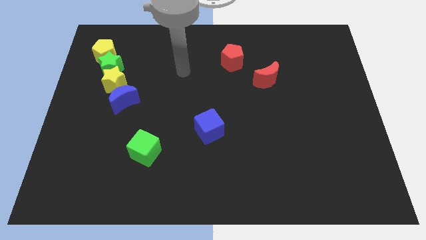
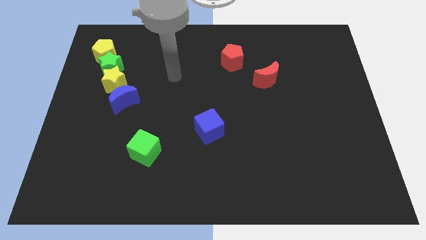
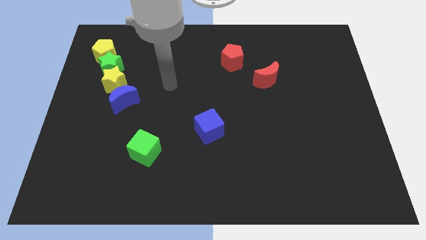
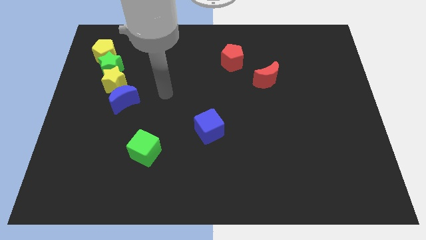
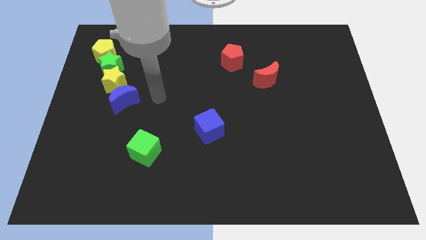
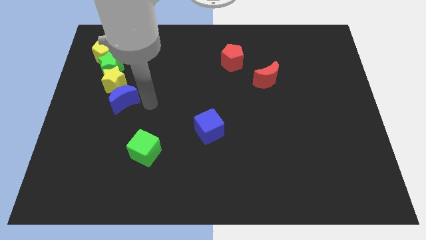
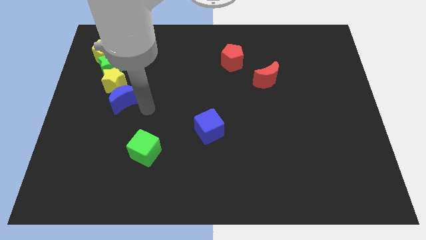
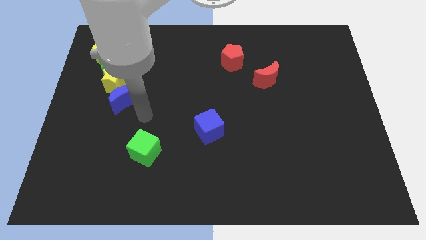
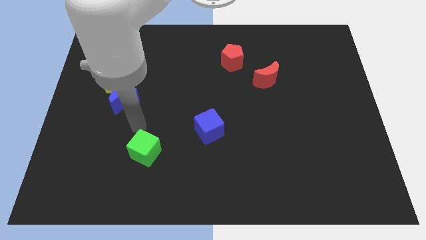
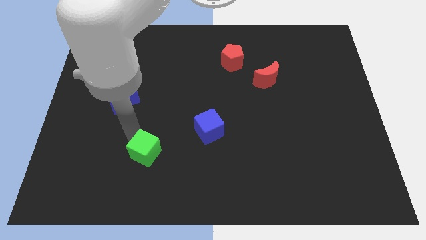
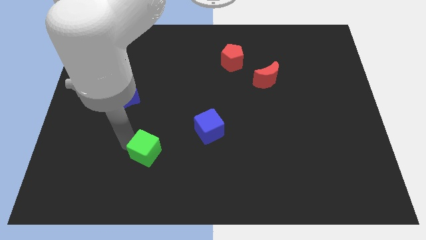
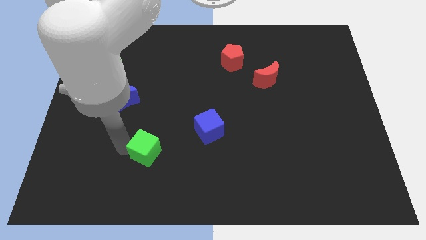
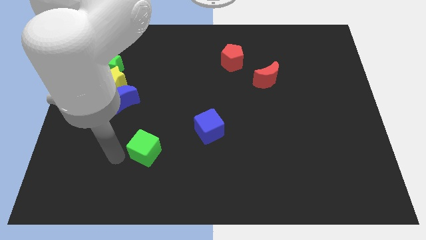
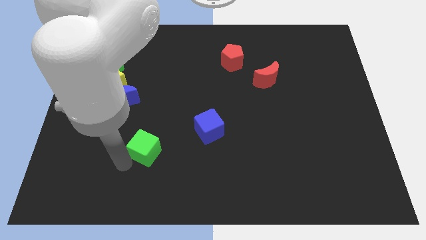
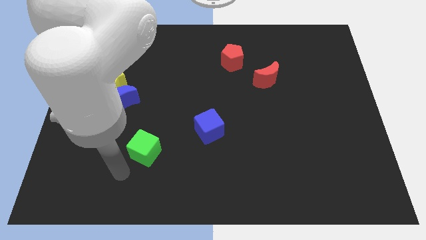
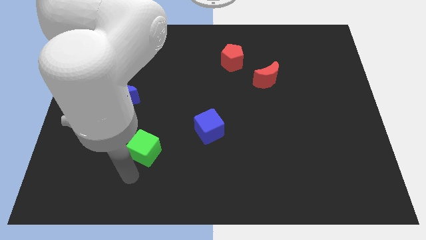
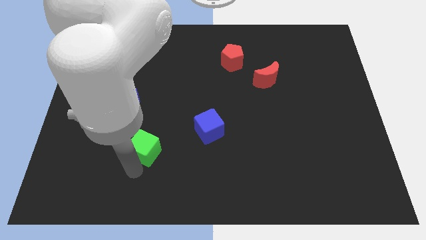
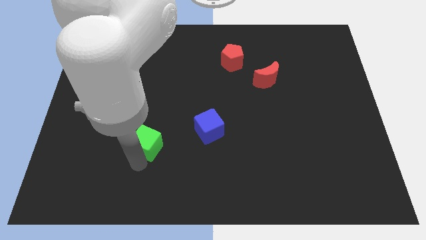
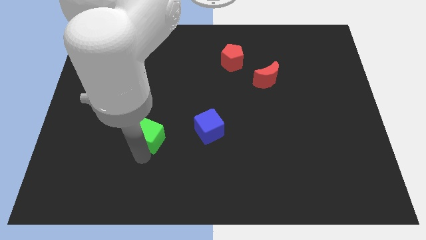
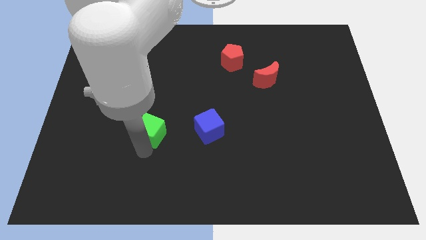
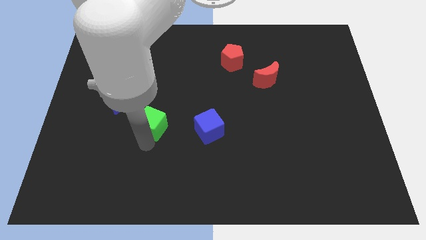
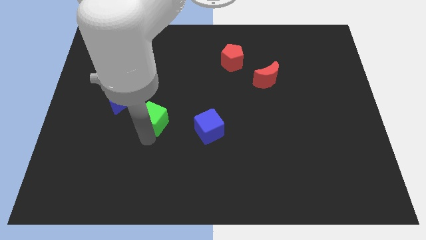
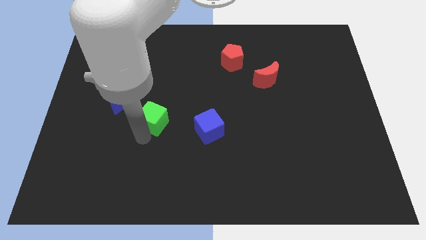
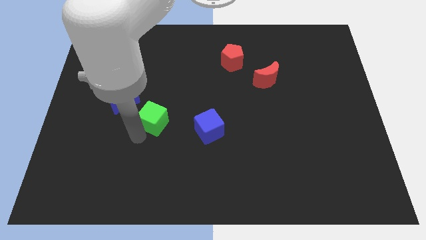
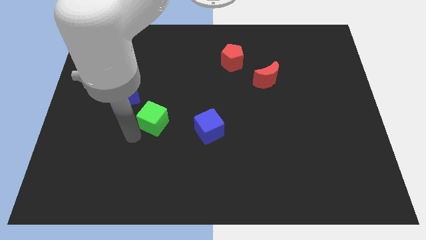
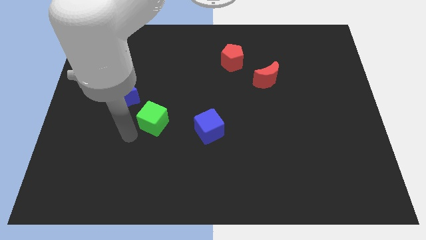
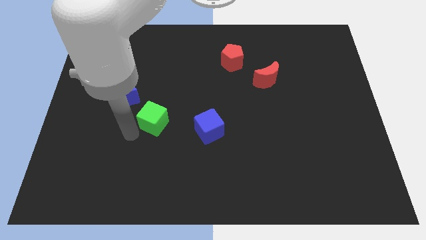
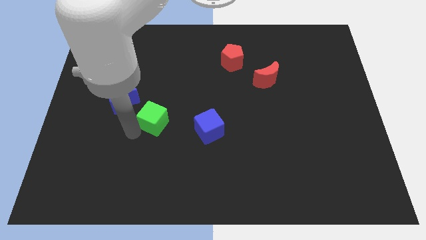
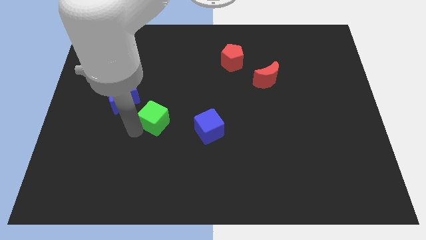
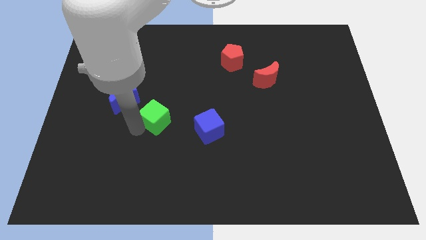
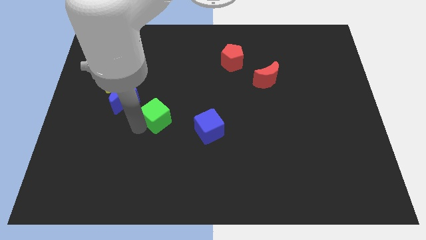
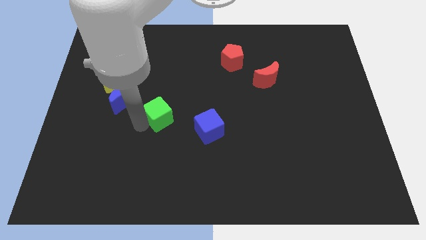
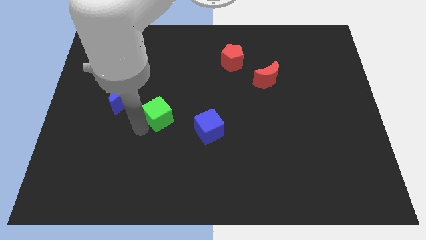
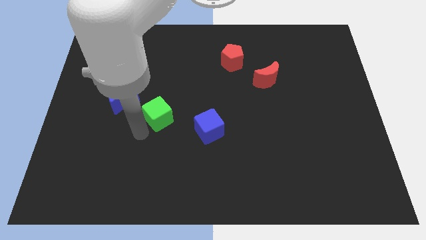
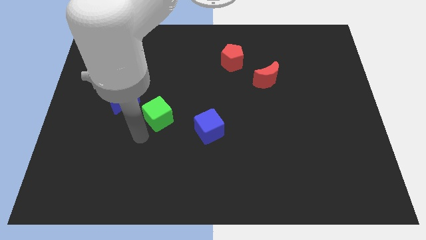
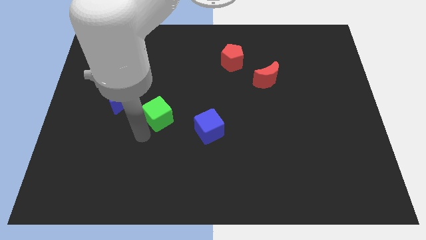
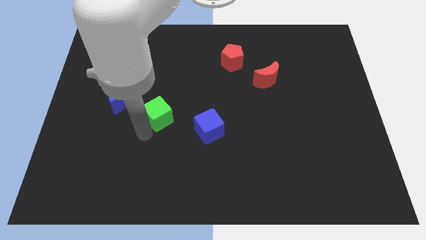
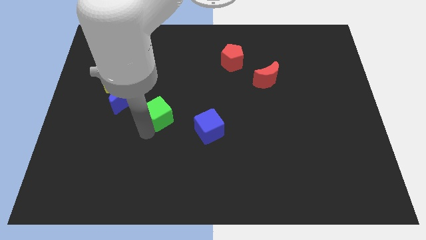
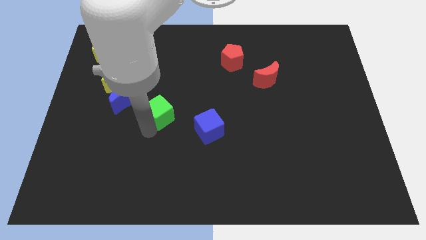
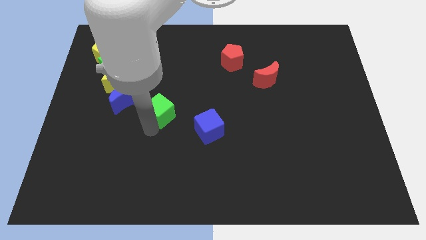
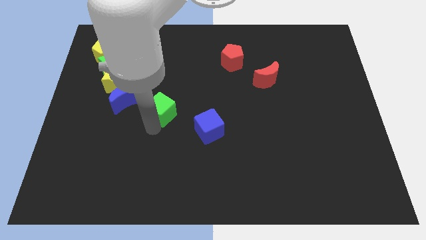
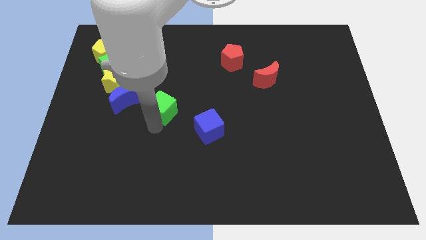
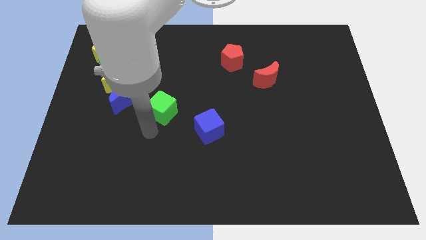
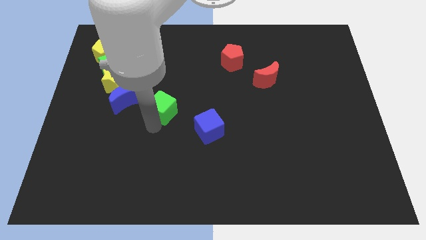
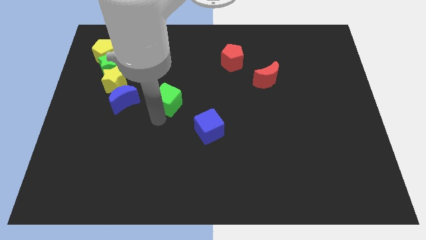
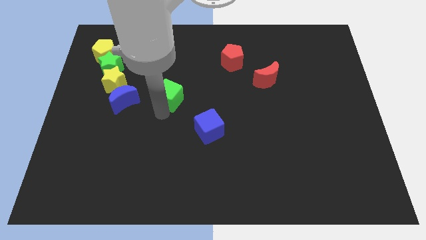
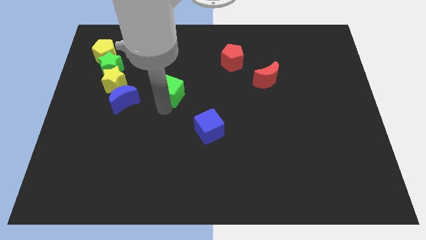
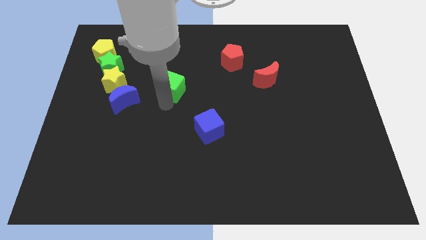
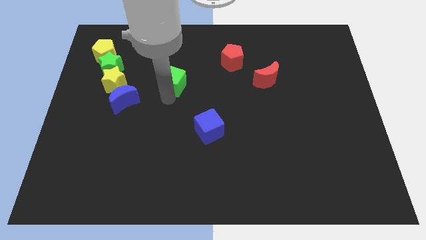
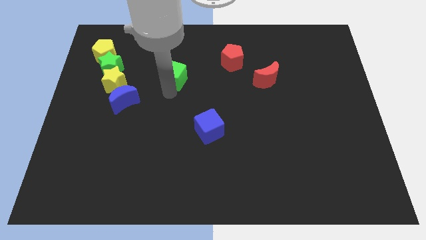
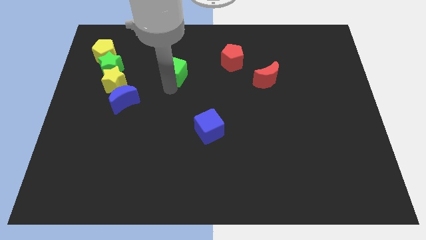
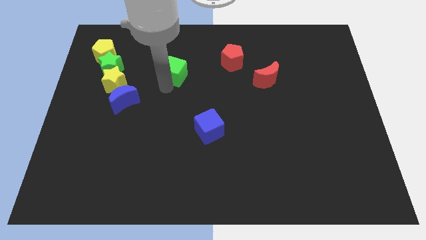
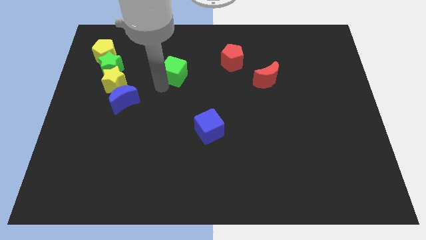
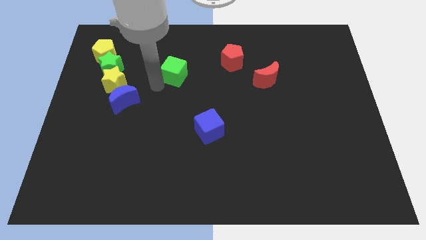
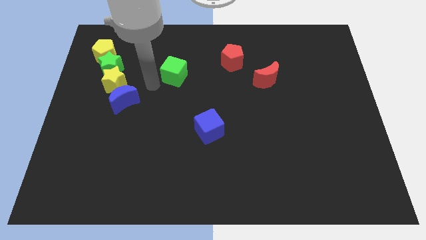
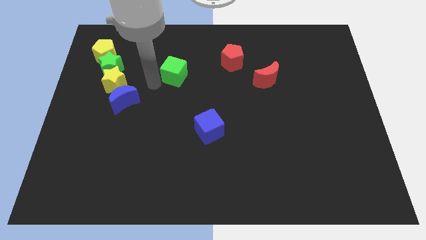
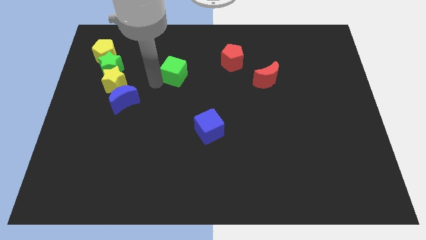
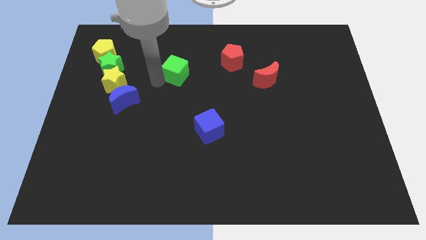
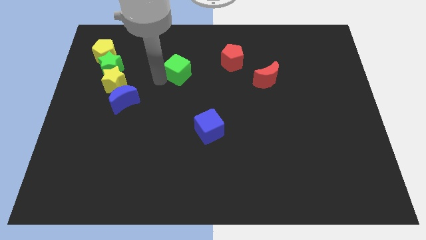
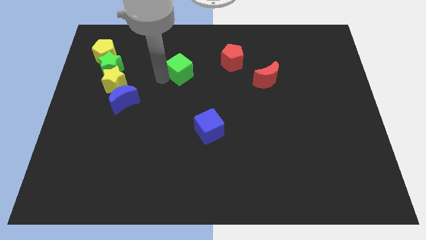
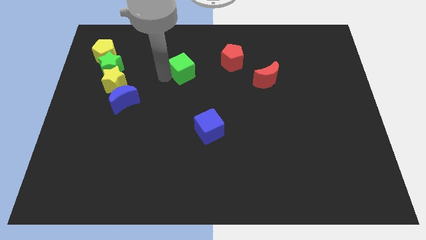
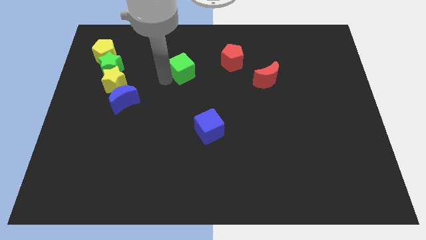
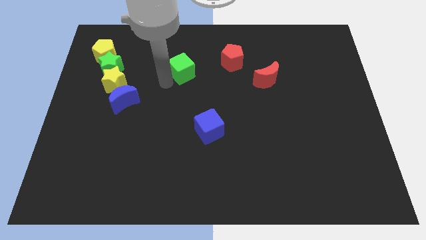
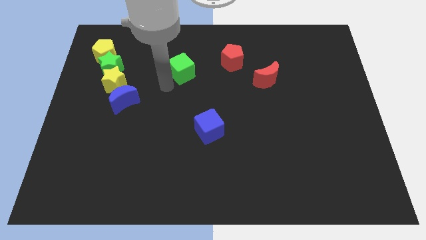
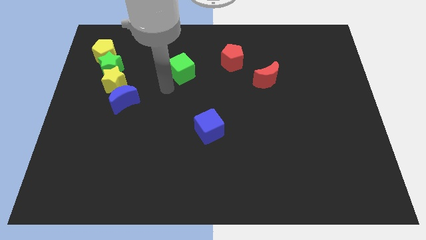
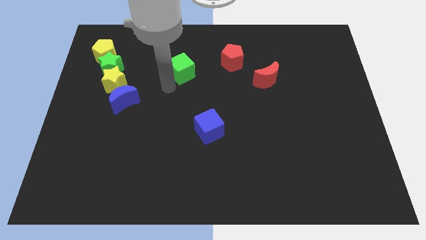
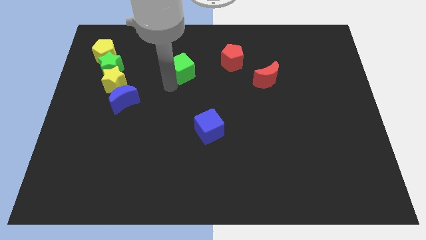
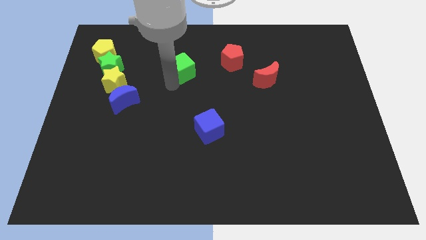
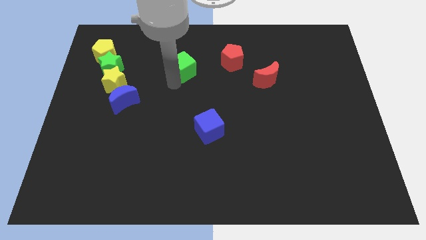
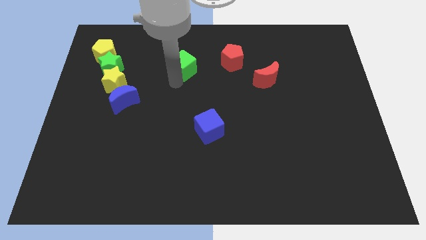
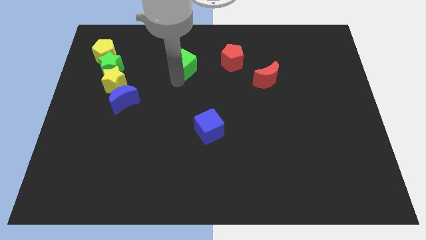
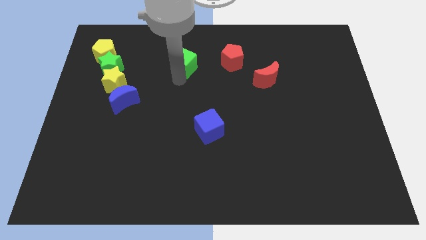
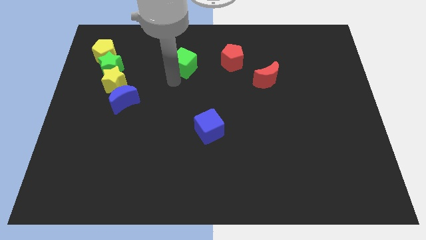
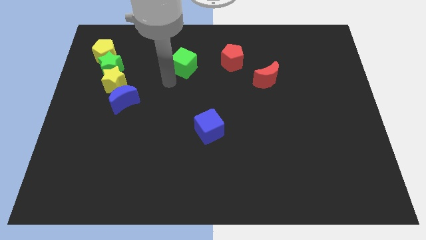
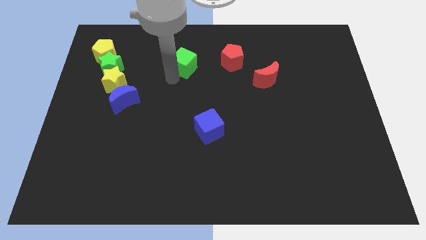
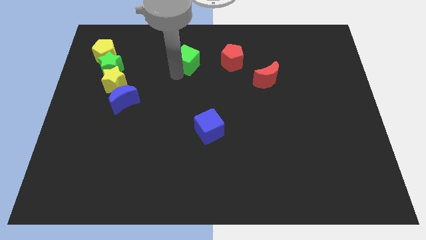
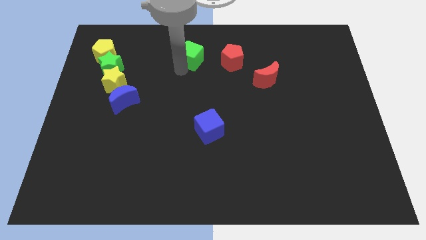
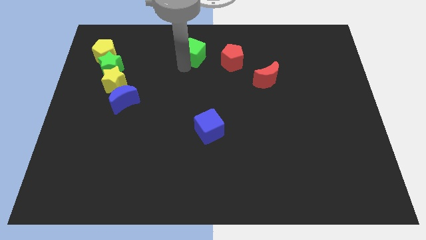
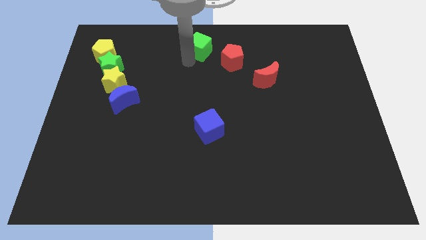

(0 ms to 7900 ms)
push the green cube to the towards your base
